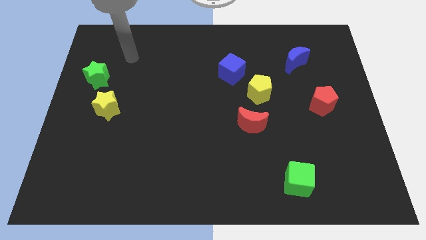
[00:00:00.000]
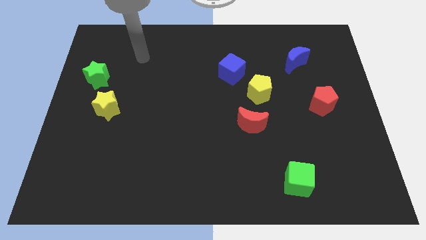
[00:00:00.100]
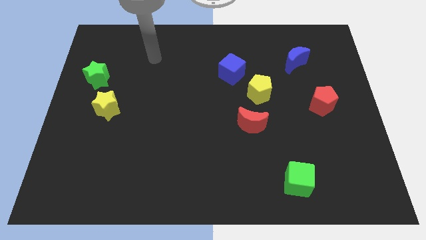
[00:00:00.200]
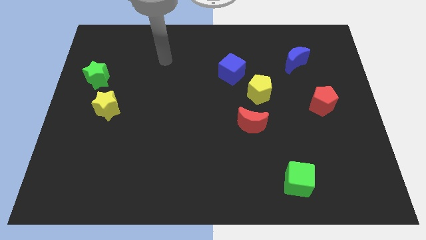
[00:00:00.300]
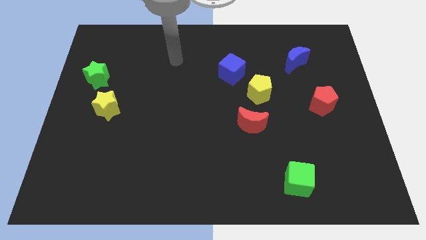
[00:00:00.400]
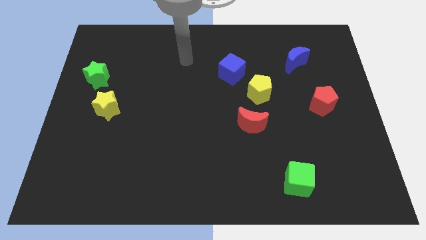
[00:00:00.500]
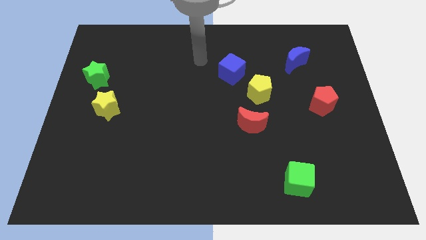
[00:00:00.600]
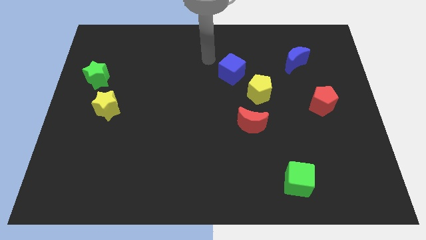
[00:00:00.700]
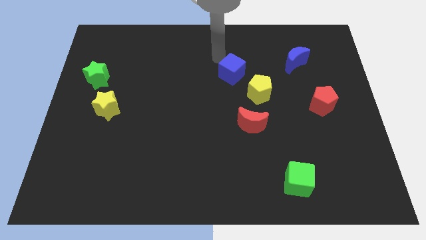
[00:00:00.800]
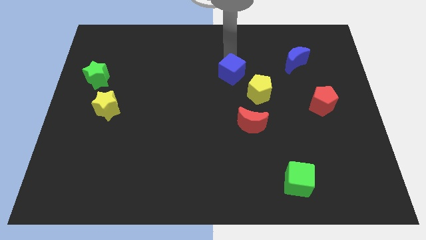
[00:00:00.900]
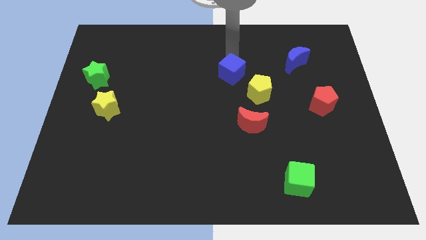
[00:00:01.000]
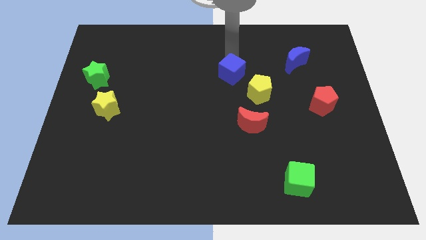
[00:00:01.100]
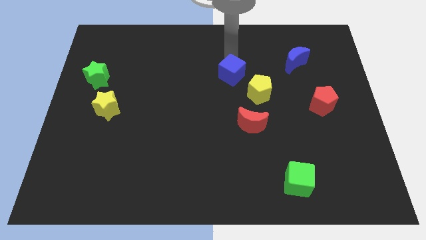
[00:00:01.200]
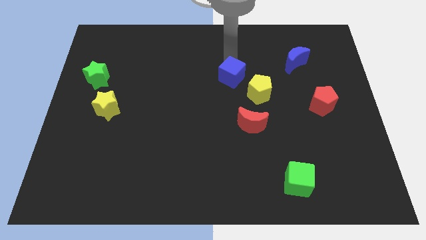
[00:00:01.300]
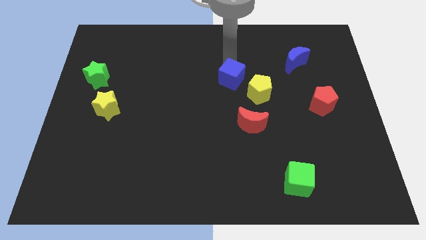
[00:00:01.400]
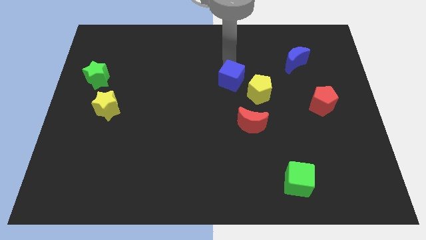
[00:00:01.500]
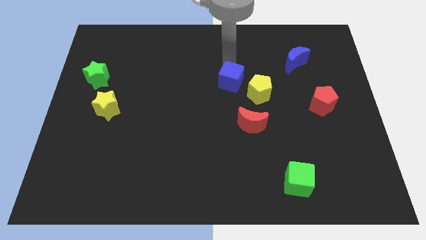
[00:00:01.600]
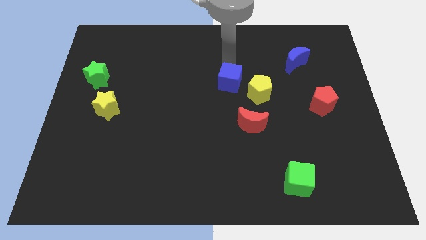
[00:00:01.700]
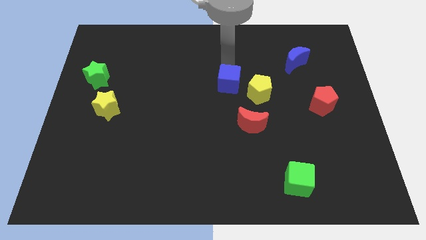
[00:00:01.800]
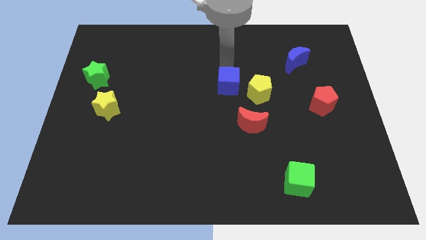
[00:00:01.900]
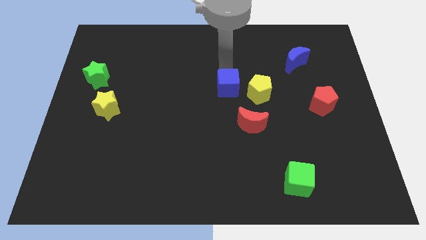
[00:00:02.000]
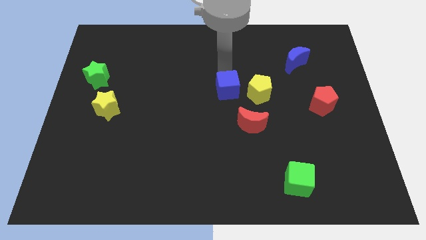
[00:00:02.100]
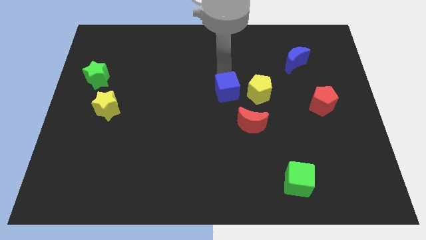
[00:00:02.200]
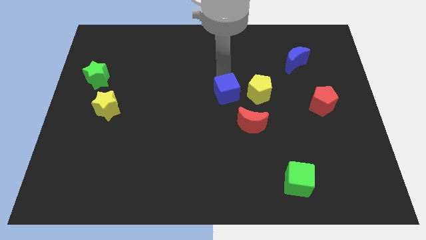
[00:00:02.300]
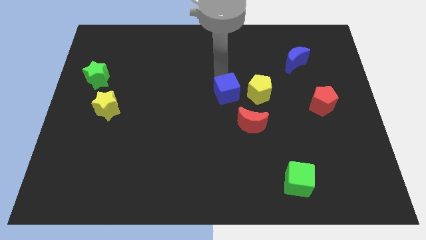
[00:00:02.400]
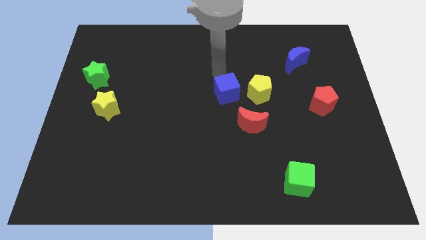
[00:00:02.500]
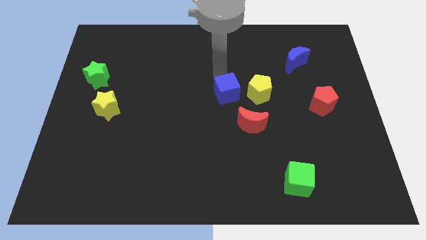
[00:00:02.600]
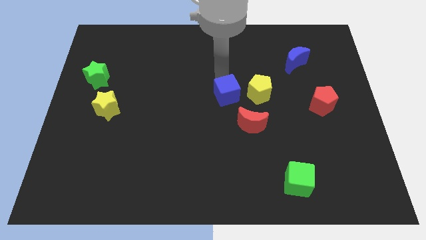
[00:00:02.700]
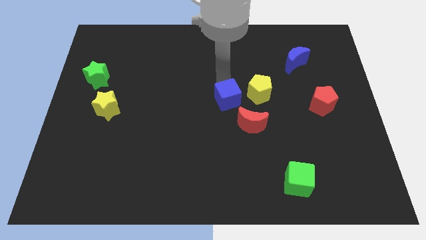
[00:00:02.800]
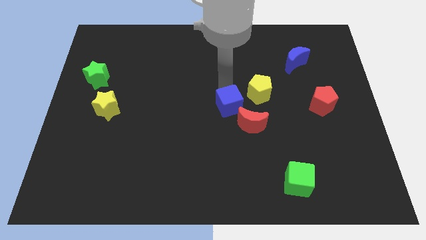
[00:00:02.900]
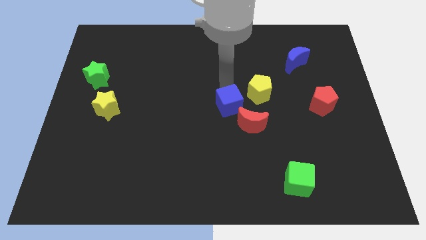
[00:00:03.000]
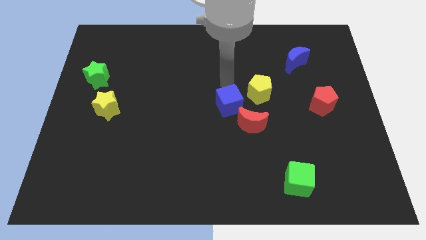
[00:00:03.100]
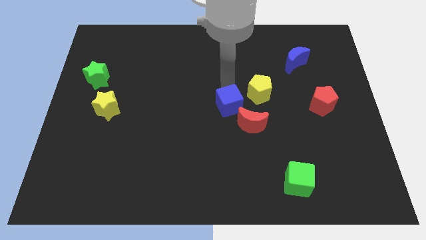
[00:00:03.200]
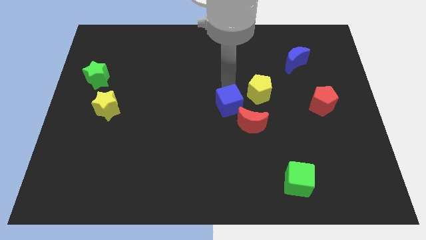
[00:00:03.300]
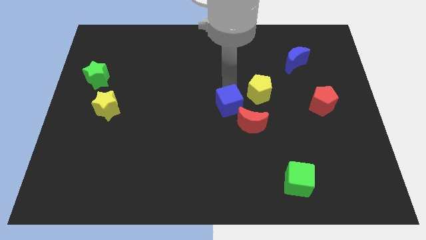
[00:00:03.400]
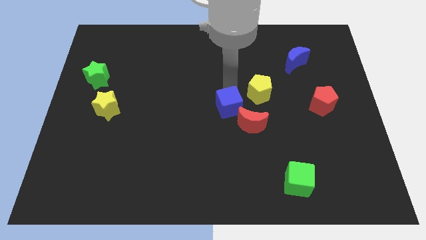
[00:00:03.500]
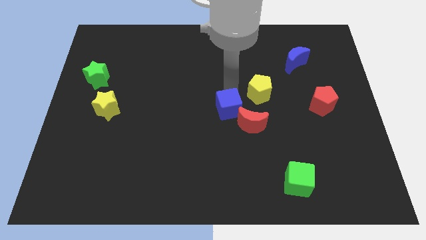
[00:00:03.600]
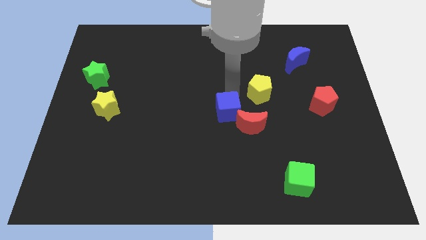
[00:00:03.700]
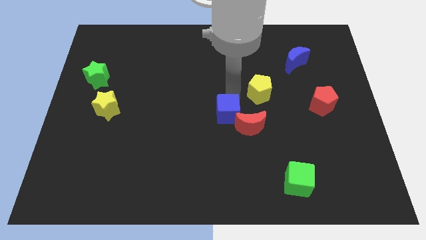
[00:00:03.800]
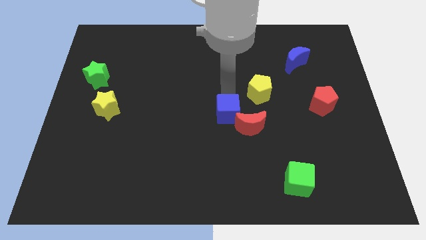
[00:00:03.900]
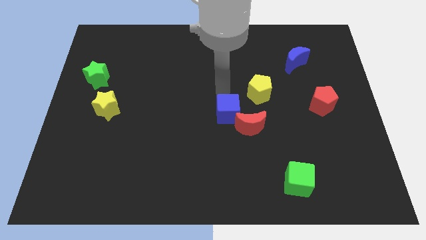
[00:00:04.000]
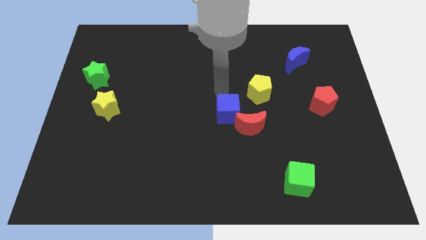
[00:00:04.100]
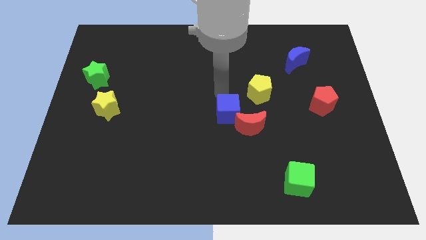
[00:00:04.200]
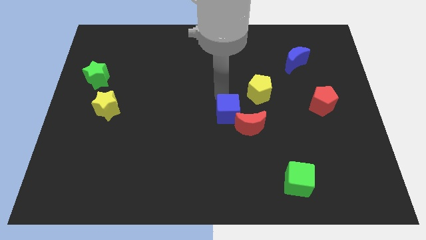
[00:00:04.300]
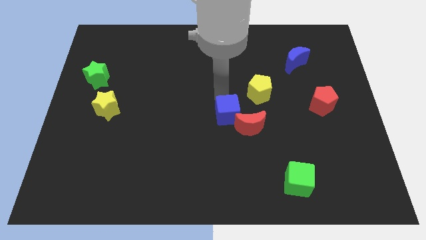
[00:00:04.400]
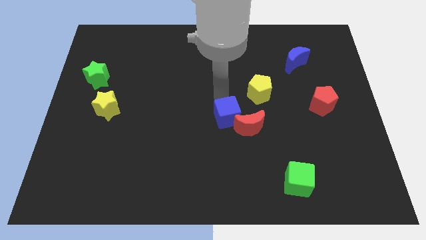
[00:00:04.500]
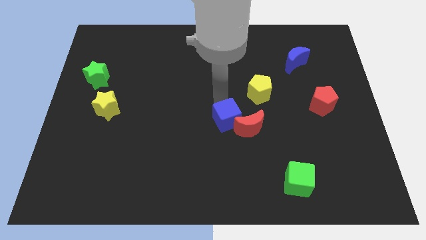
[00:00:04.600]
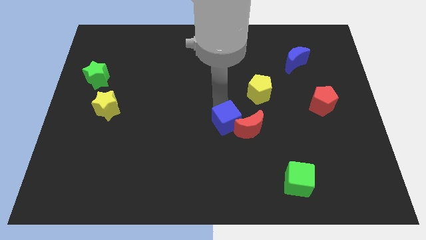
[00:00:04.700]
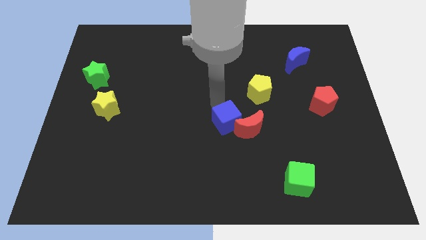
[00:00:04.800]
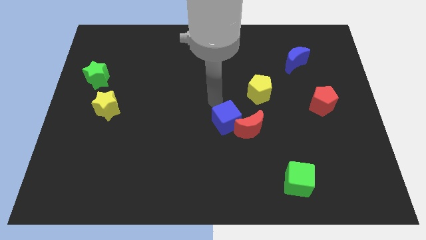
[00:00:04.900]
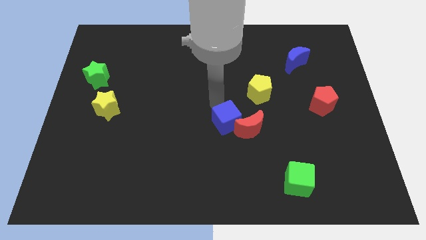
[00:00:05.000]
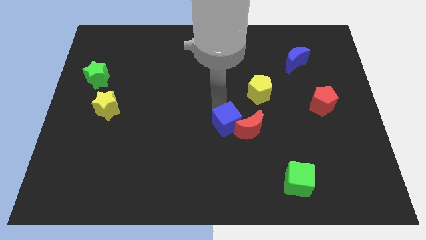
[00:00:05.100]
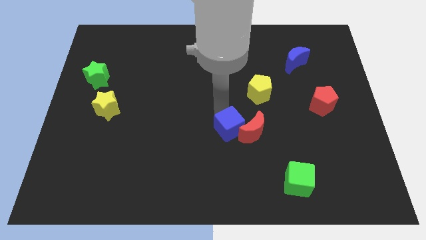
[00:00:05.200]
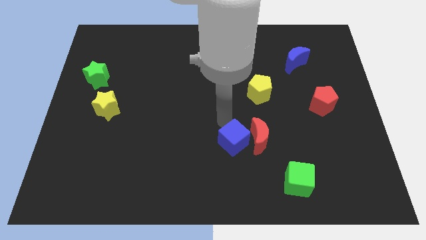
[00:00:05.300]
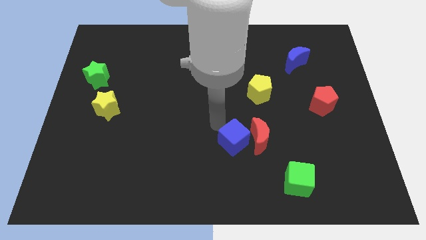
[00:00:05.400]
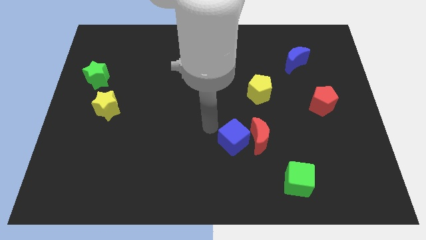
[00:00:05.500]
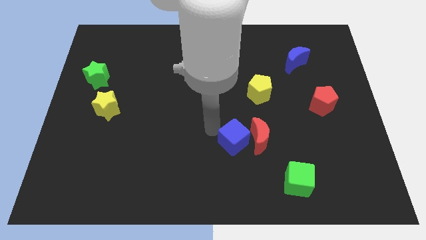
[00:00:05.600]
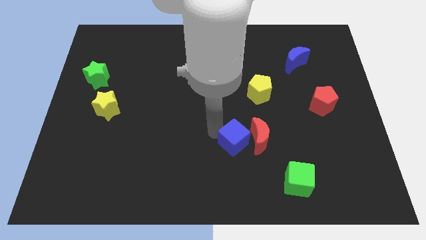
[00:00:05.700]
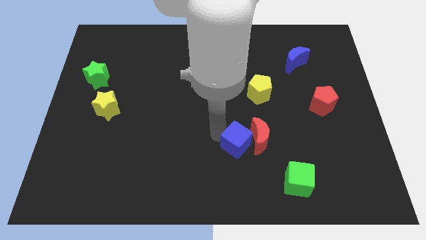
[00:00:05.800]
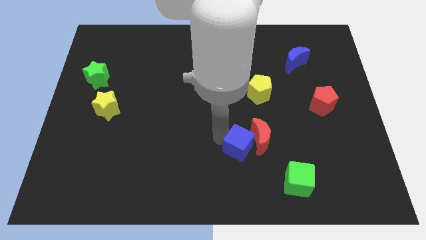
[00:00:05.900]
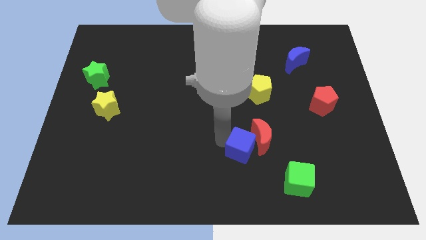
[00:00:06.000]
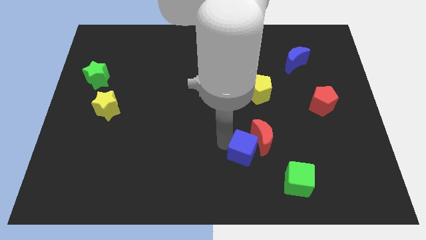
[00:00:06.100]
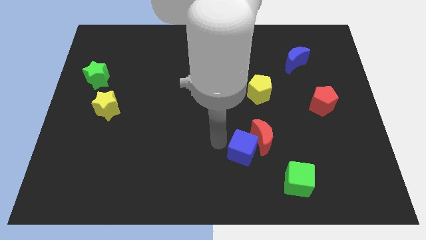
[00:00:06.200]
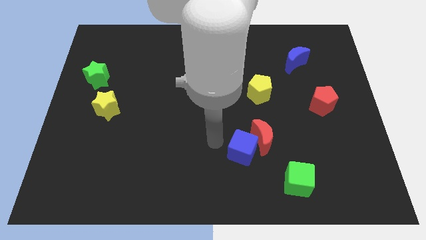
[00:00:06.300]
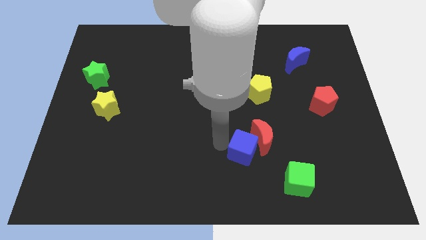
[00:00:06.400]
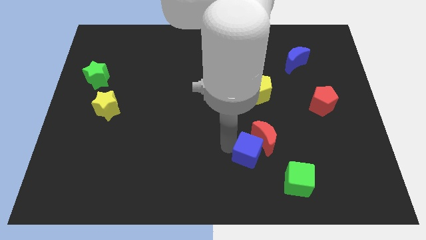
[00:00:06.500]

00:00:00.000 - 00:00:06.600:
put the blue cube diagonally up and to the left of the green cube

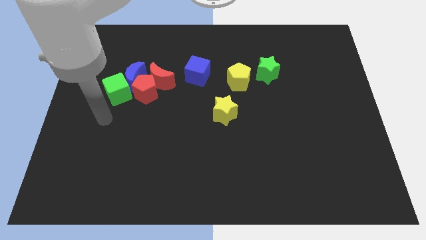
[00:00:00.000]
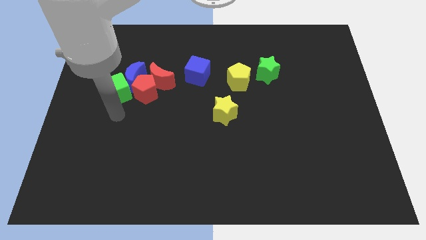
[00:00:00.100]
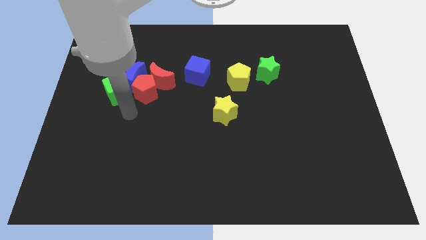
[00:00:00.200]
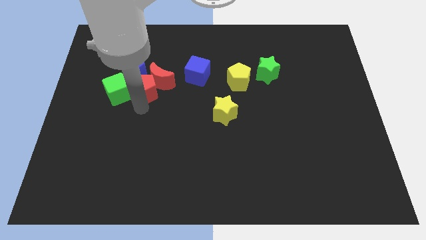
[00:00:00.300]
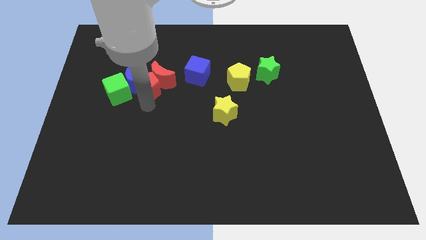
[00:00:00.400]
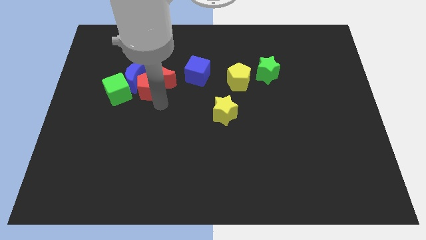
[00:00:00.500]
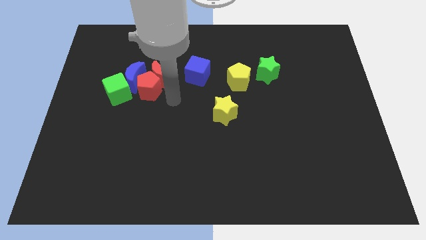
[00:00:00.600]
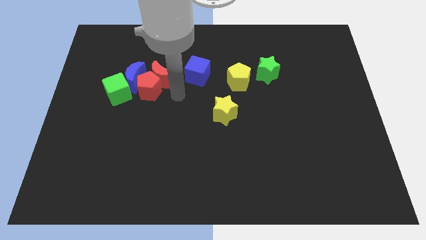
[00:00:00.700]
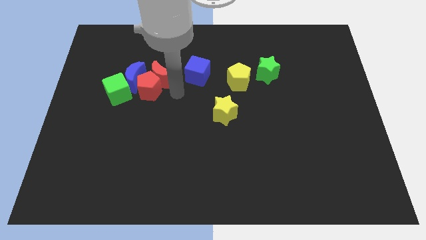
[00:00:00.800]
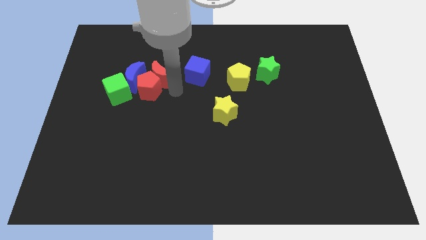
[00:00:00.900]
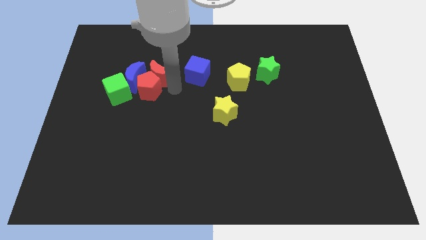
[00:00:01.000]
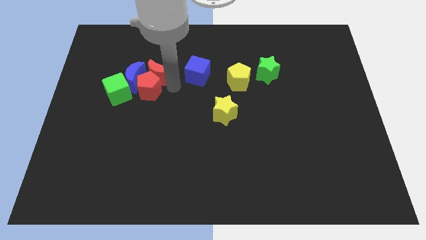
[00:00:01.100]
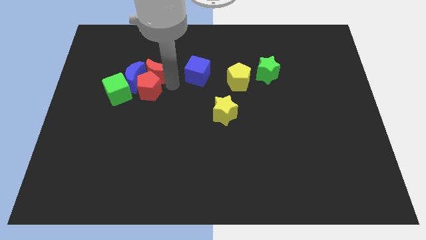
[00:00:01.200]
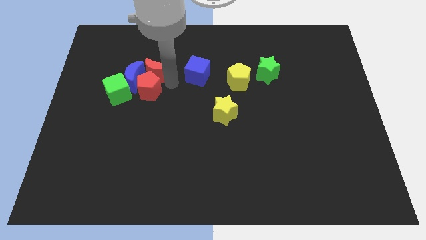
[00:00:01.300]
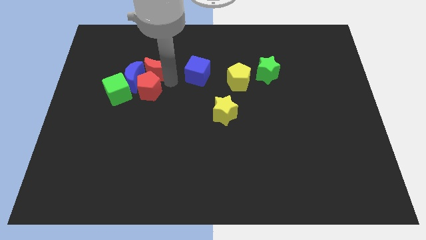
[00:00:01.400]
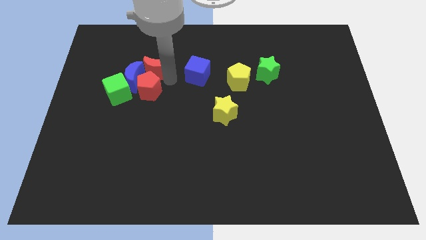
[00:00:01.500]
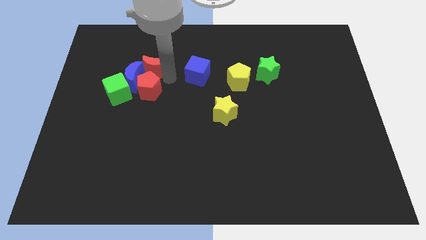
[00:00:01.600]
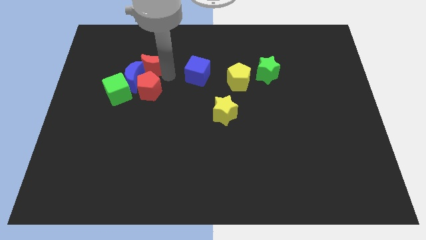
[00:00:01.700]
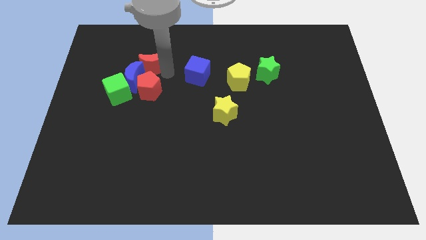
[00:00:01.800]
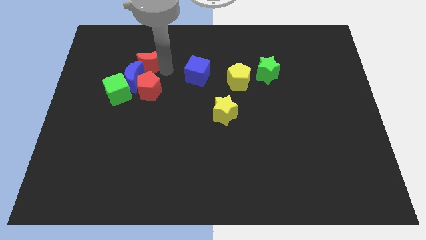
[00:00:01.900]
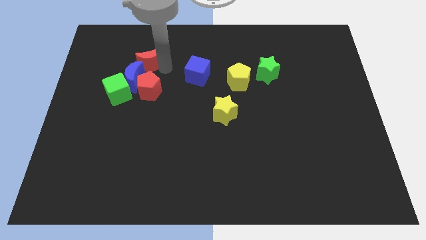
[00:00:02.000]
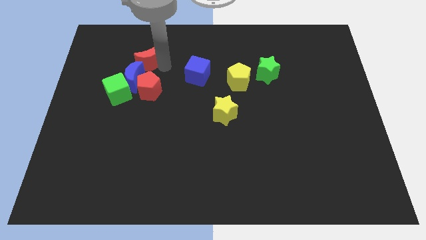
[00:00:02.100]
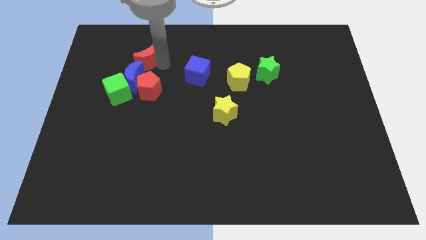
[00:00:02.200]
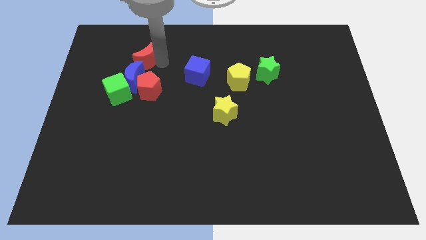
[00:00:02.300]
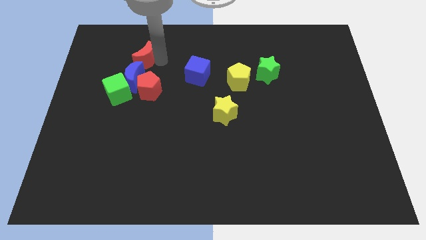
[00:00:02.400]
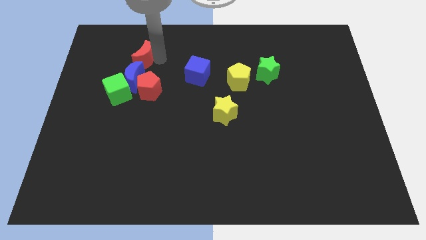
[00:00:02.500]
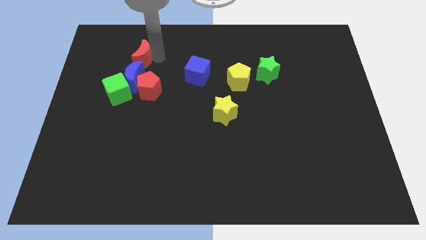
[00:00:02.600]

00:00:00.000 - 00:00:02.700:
put the red moon to the top of the green cube
